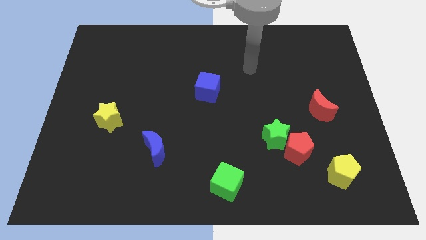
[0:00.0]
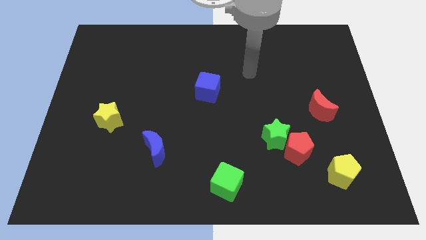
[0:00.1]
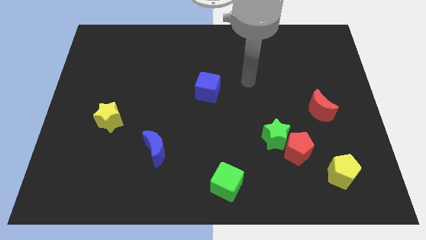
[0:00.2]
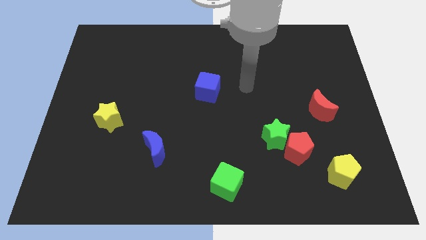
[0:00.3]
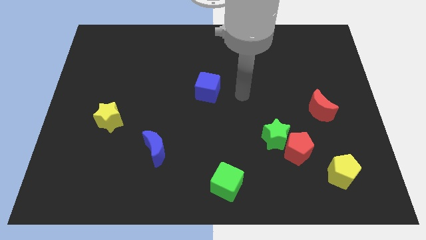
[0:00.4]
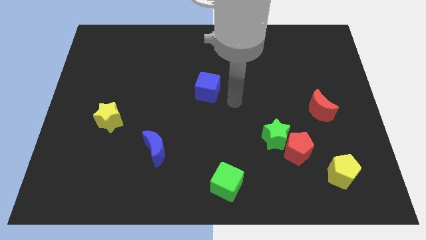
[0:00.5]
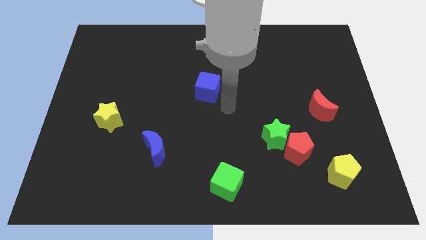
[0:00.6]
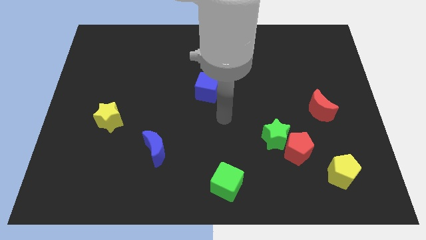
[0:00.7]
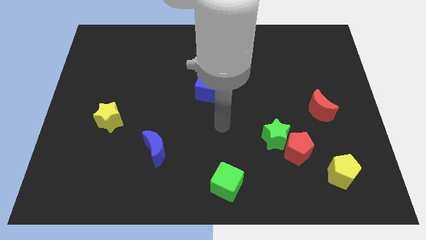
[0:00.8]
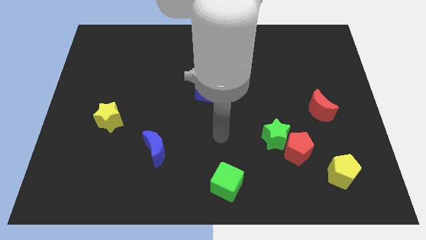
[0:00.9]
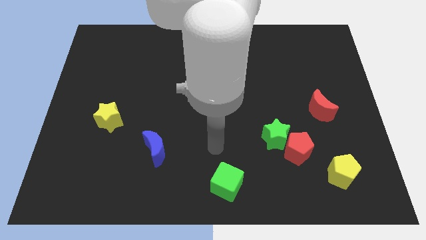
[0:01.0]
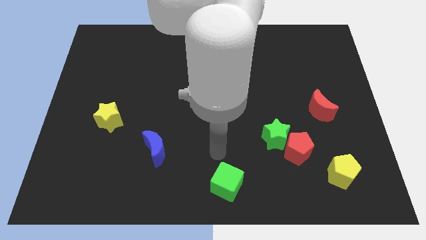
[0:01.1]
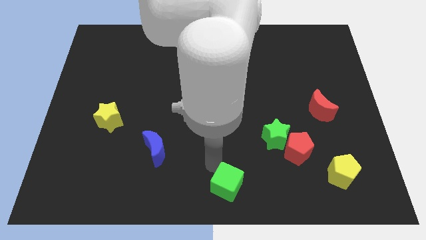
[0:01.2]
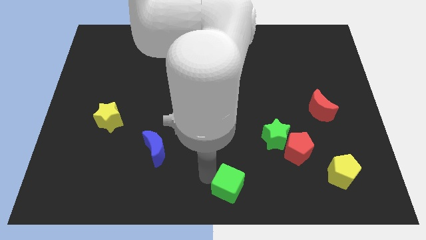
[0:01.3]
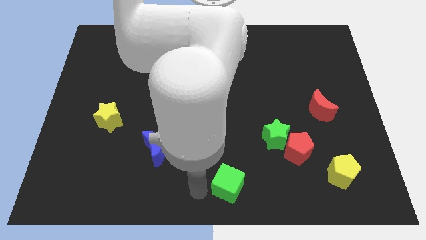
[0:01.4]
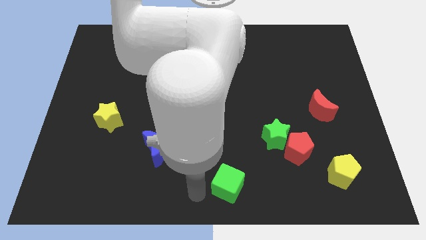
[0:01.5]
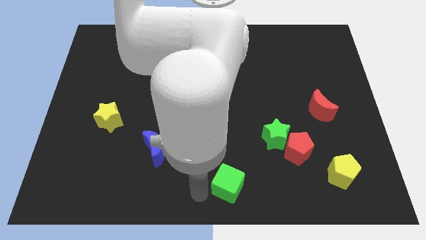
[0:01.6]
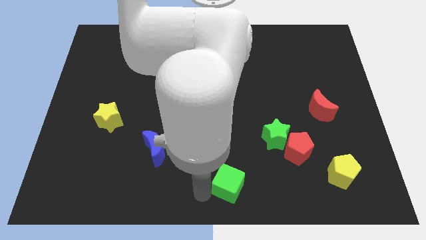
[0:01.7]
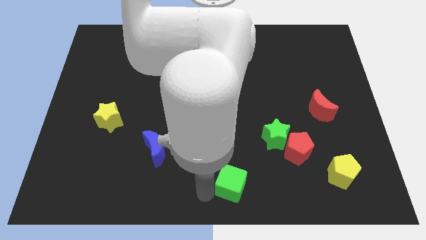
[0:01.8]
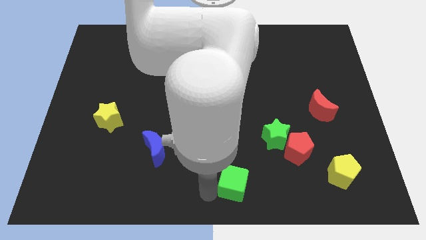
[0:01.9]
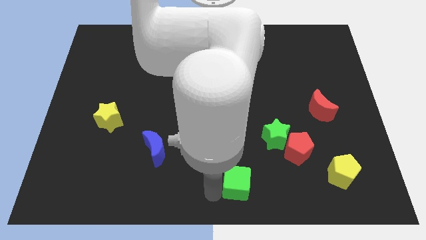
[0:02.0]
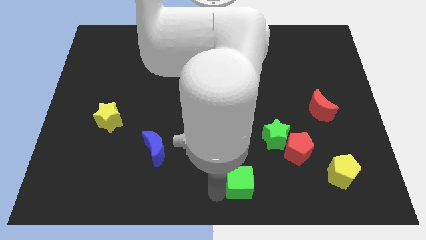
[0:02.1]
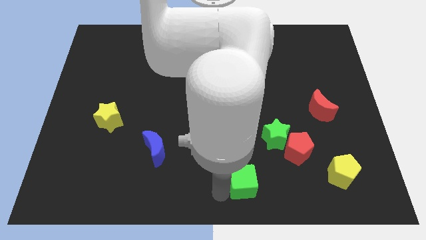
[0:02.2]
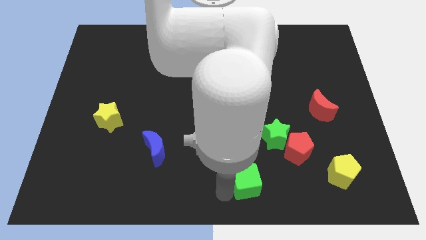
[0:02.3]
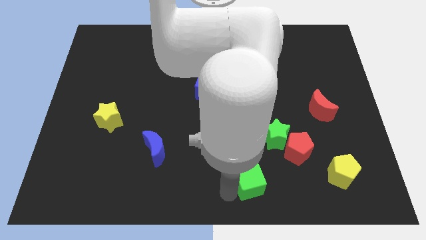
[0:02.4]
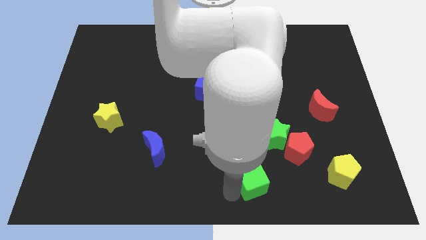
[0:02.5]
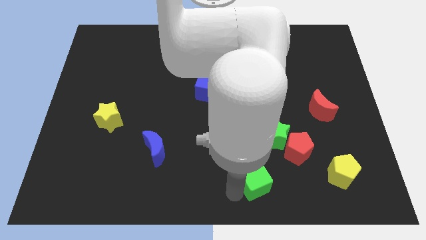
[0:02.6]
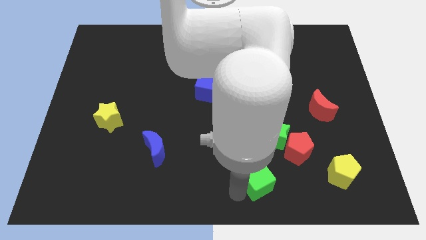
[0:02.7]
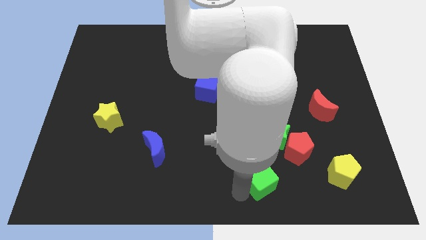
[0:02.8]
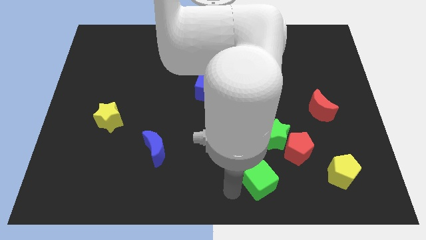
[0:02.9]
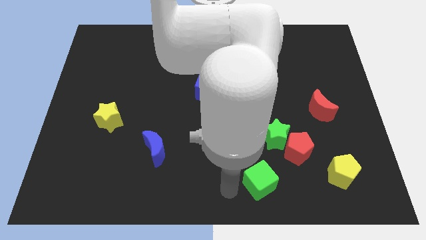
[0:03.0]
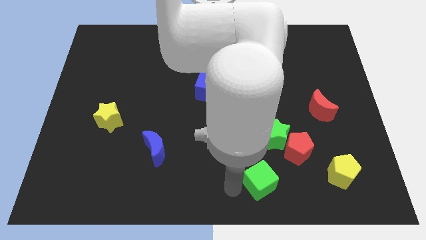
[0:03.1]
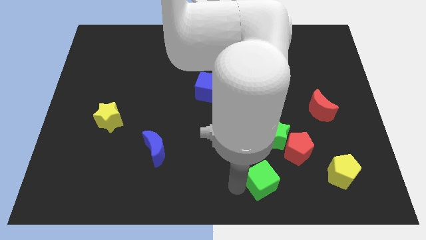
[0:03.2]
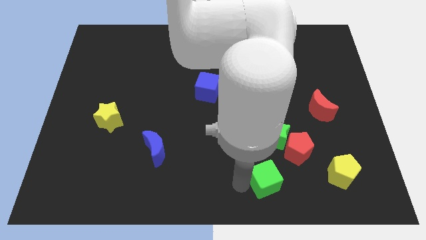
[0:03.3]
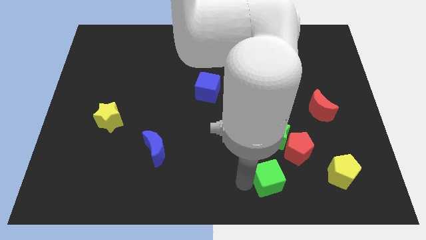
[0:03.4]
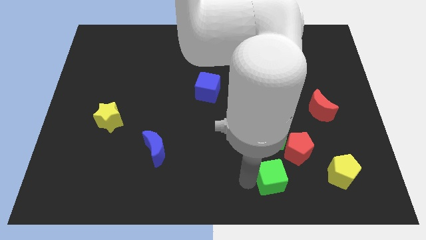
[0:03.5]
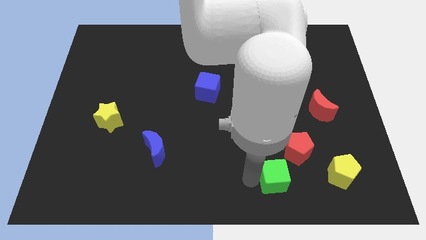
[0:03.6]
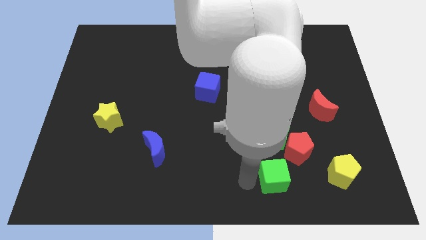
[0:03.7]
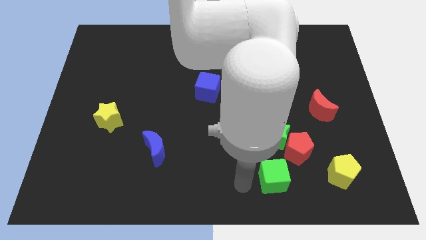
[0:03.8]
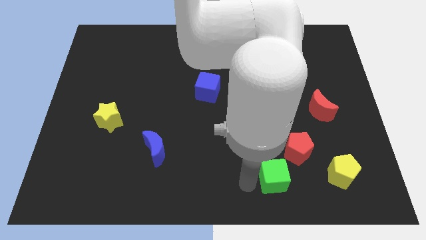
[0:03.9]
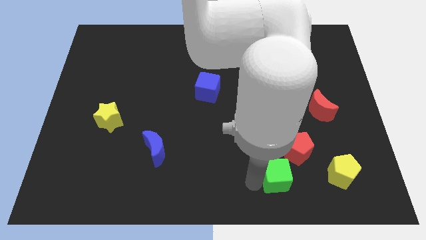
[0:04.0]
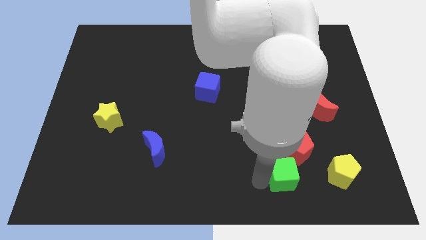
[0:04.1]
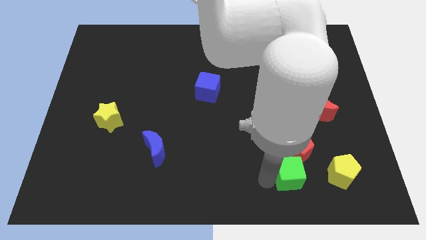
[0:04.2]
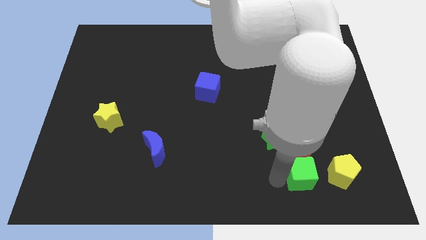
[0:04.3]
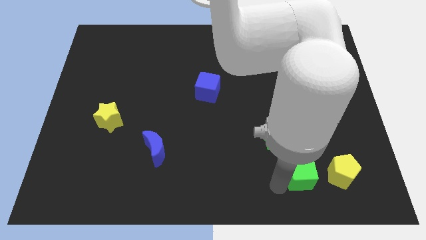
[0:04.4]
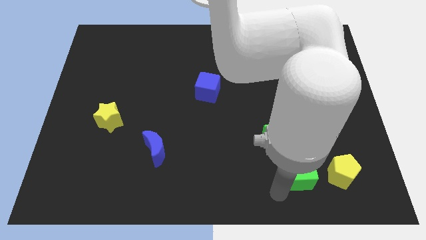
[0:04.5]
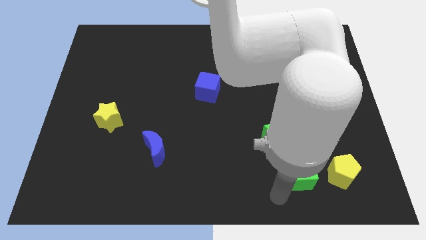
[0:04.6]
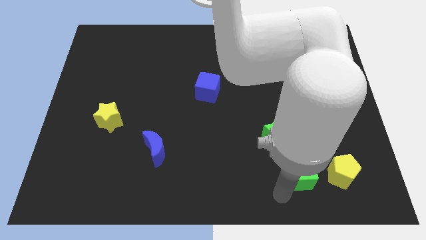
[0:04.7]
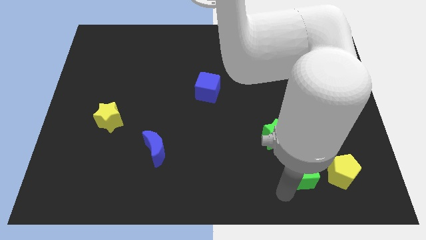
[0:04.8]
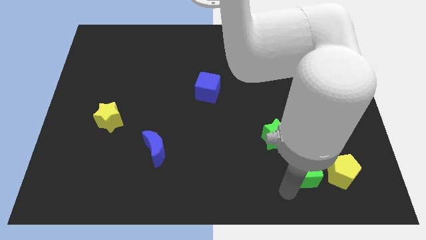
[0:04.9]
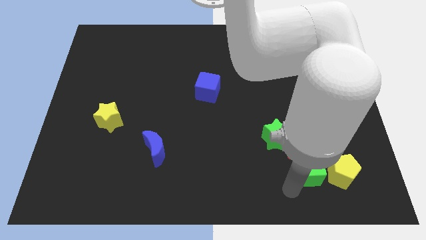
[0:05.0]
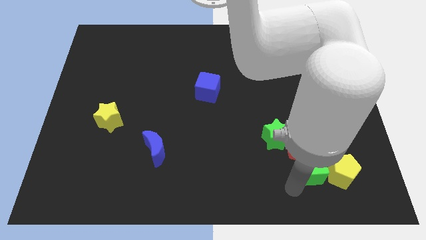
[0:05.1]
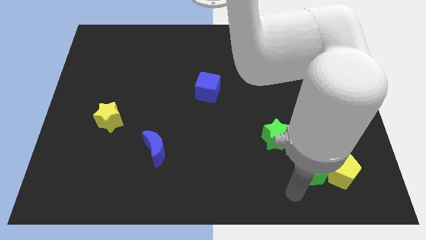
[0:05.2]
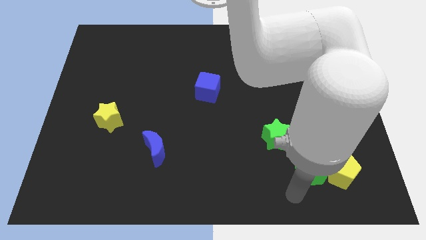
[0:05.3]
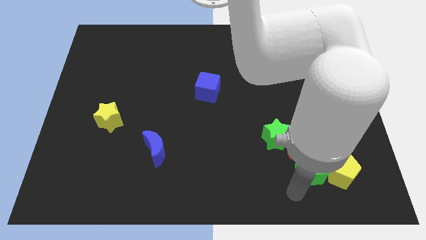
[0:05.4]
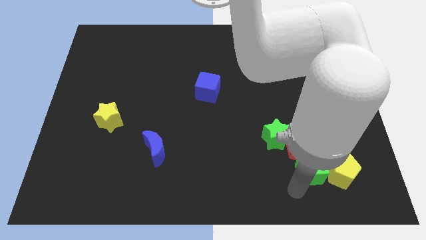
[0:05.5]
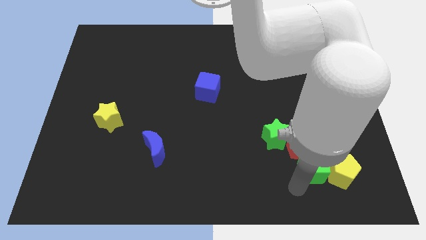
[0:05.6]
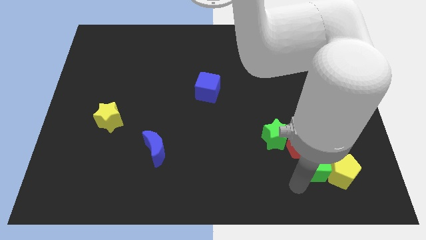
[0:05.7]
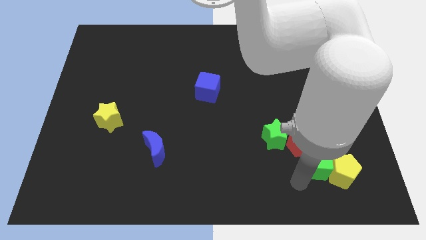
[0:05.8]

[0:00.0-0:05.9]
put the green cube below the red moon

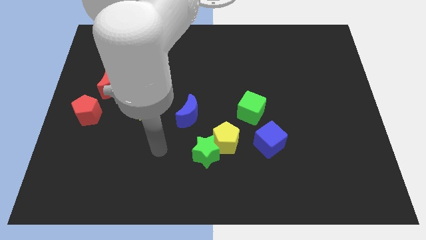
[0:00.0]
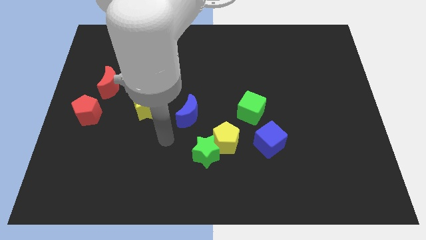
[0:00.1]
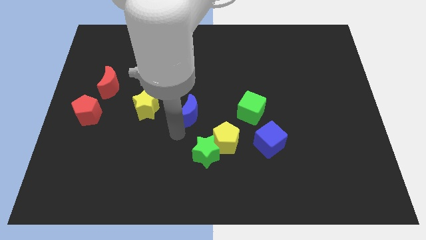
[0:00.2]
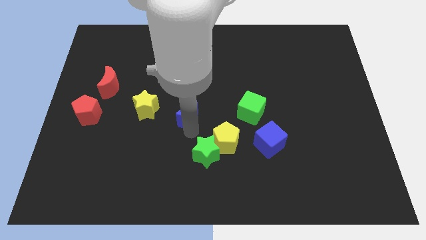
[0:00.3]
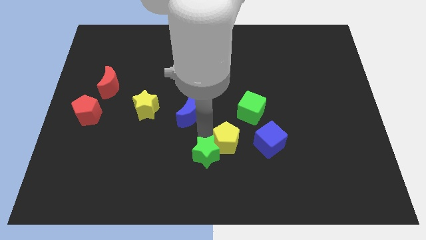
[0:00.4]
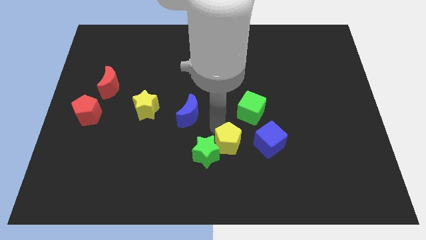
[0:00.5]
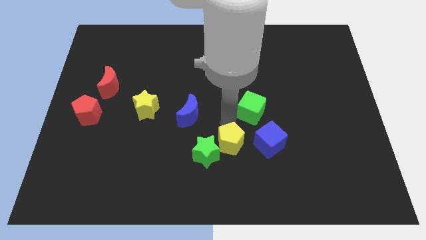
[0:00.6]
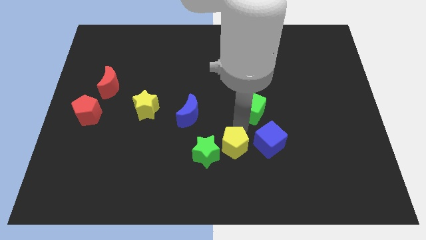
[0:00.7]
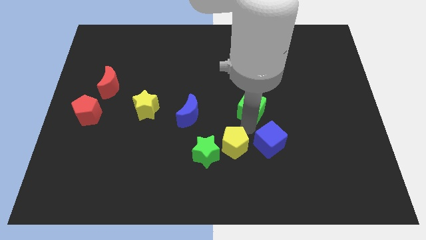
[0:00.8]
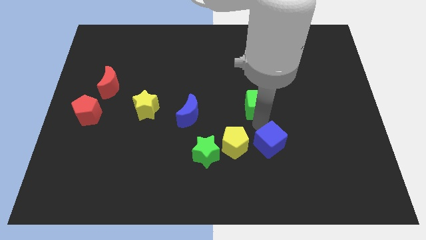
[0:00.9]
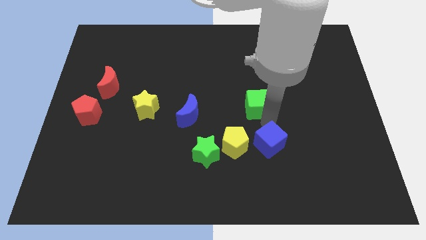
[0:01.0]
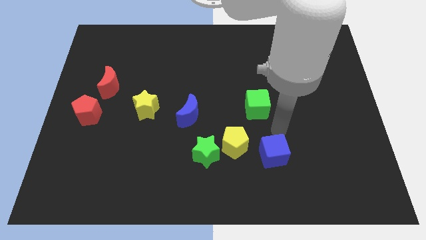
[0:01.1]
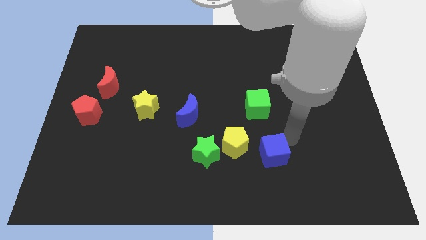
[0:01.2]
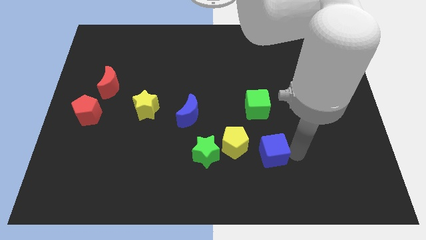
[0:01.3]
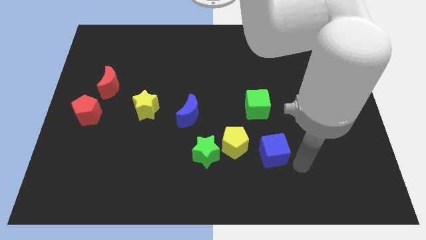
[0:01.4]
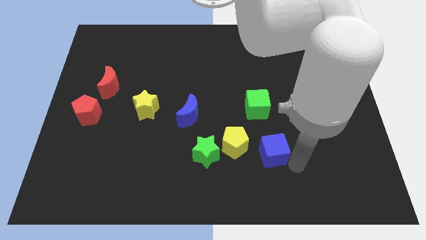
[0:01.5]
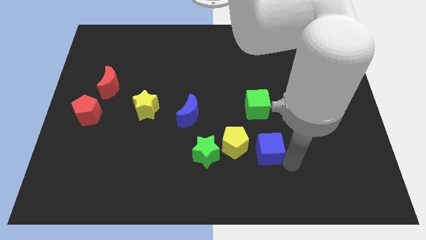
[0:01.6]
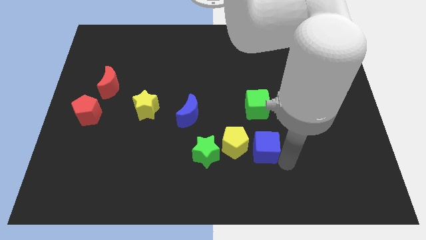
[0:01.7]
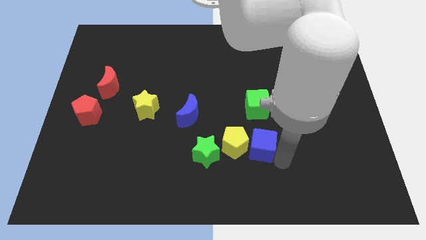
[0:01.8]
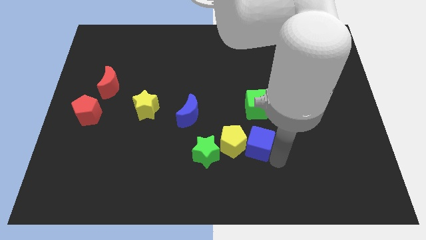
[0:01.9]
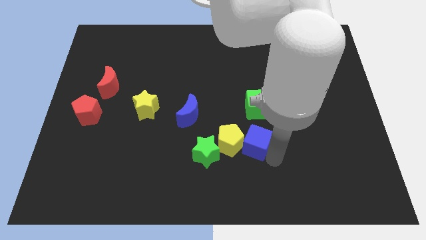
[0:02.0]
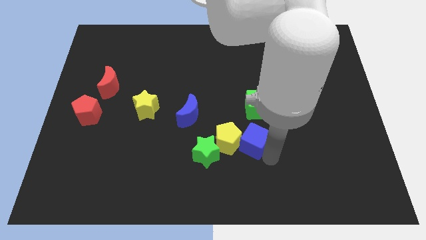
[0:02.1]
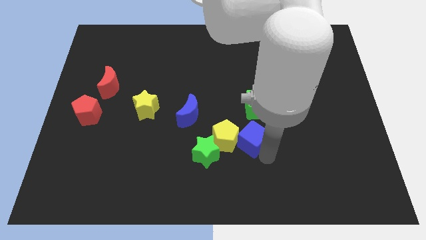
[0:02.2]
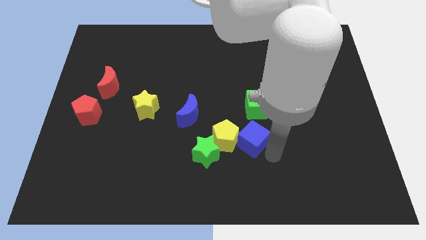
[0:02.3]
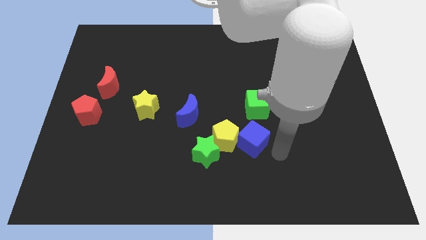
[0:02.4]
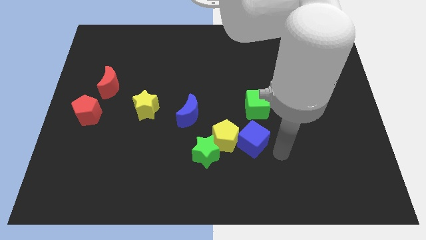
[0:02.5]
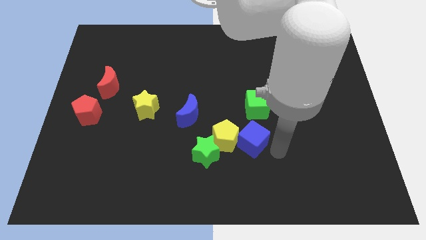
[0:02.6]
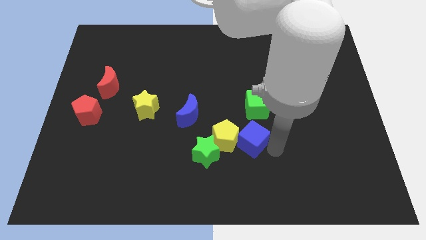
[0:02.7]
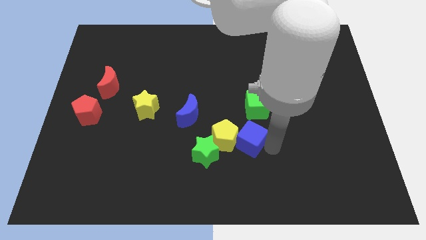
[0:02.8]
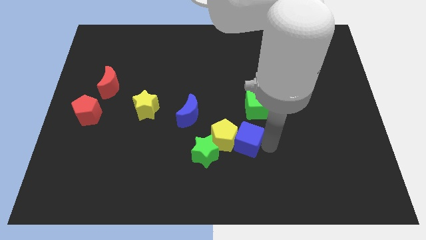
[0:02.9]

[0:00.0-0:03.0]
slide the blue cube diagonally up and to the right of the green star
